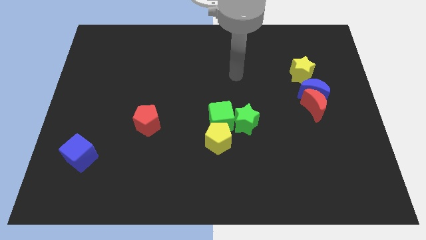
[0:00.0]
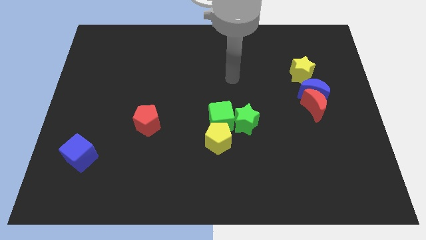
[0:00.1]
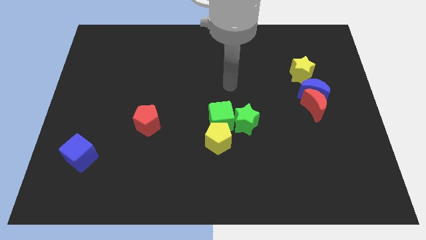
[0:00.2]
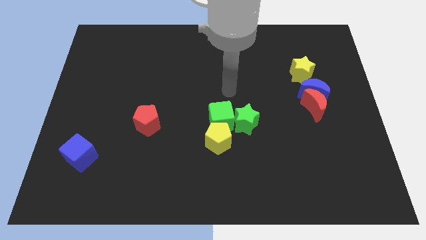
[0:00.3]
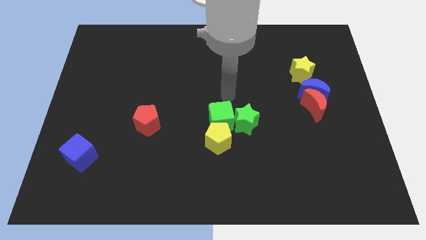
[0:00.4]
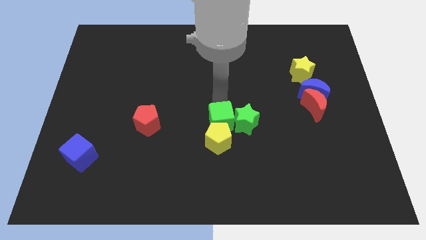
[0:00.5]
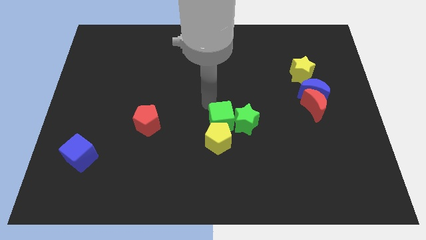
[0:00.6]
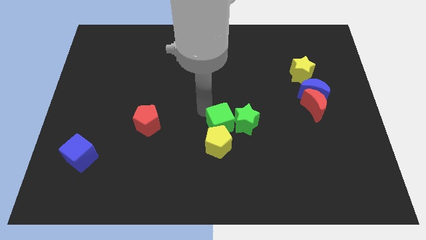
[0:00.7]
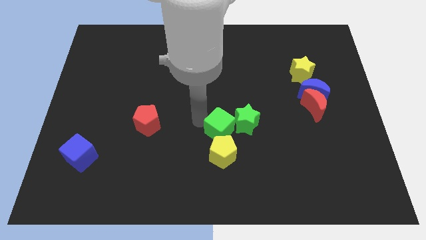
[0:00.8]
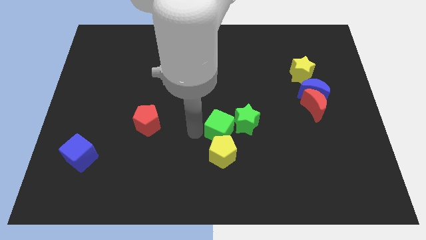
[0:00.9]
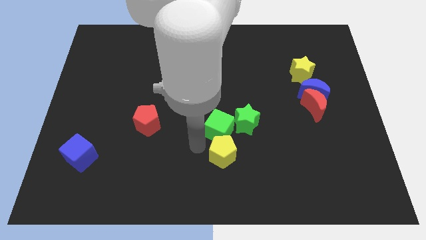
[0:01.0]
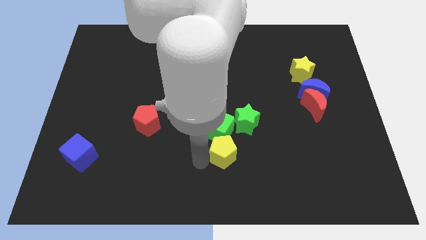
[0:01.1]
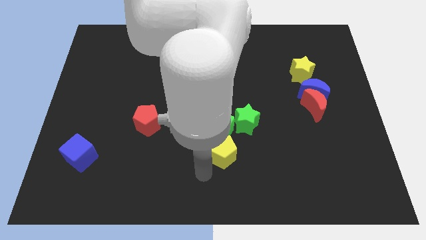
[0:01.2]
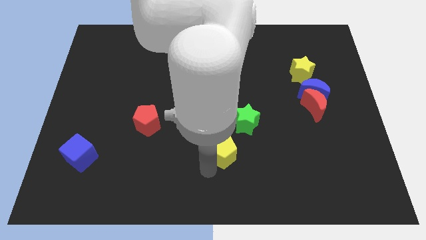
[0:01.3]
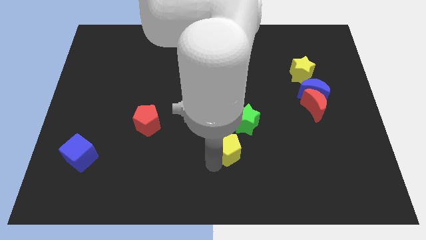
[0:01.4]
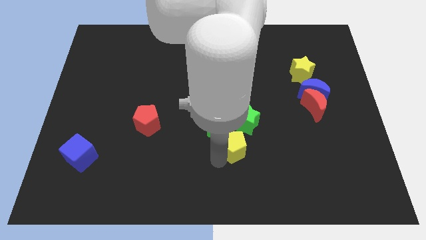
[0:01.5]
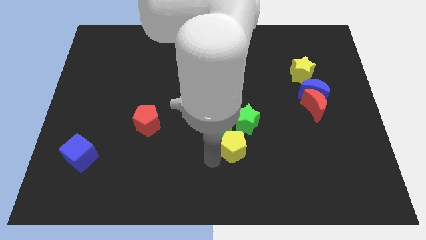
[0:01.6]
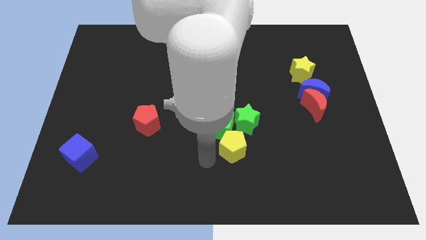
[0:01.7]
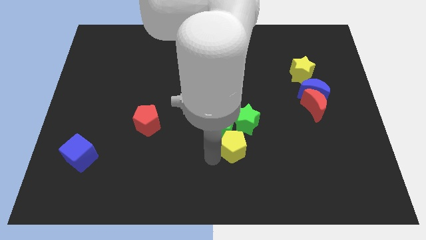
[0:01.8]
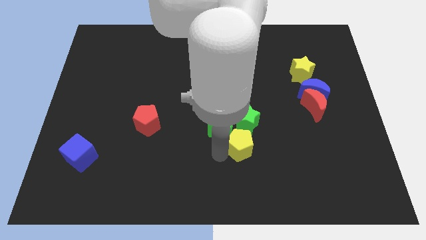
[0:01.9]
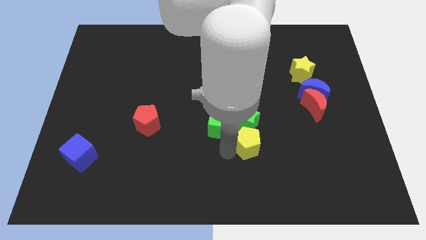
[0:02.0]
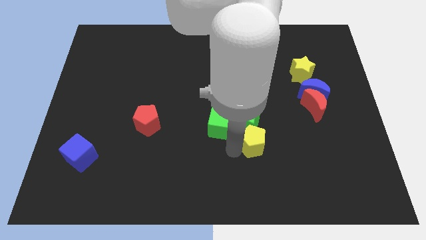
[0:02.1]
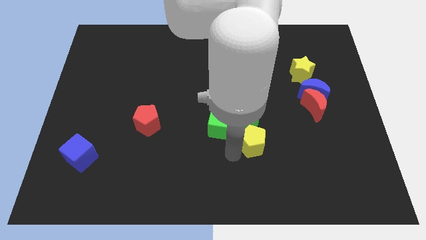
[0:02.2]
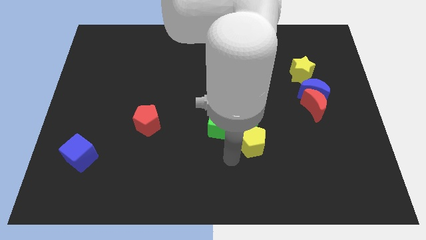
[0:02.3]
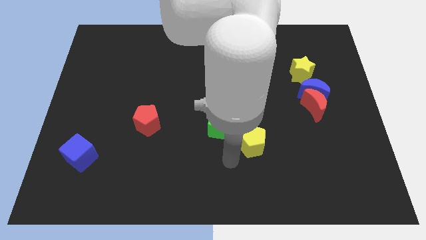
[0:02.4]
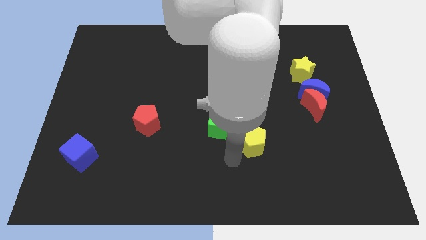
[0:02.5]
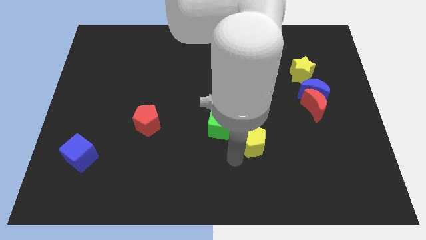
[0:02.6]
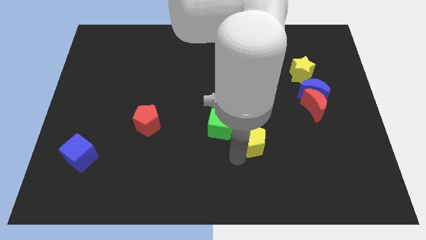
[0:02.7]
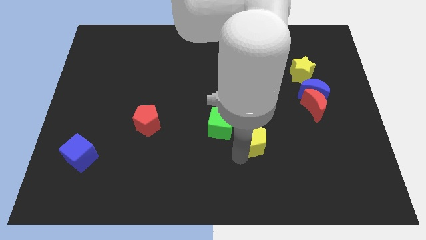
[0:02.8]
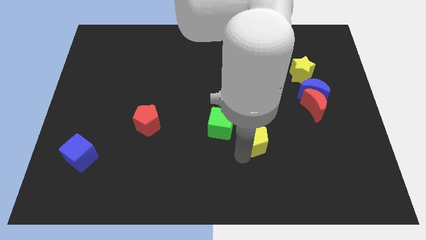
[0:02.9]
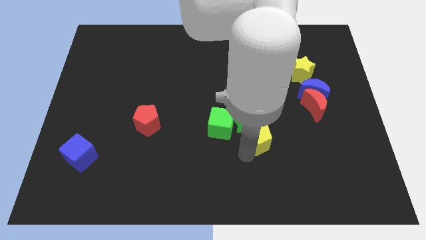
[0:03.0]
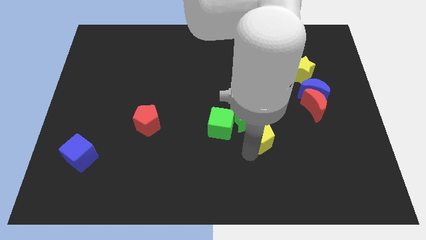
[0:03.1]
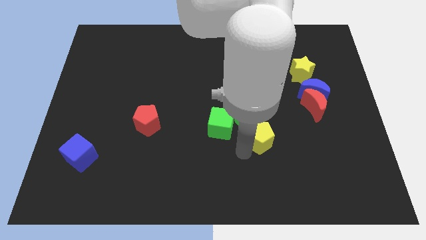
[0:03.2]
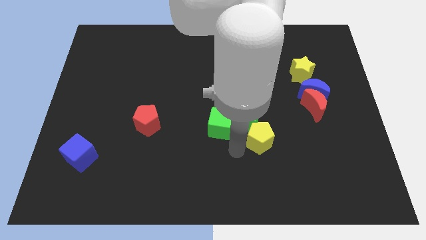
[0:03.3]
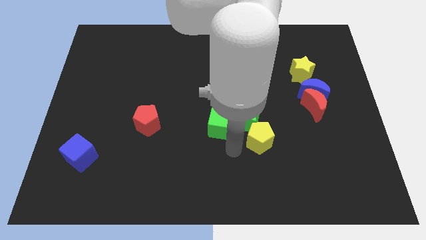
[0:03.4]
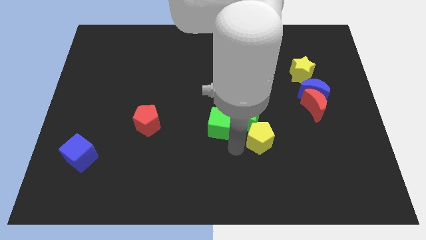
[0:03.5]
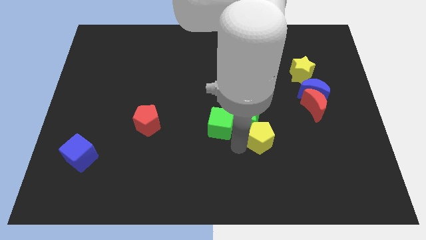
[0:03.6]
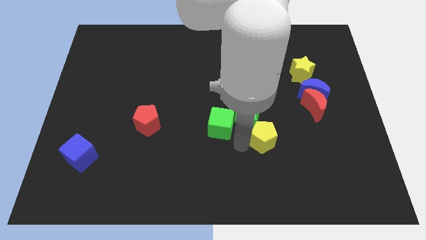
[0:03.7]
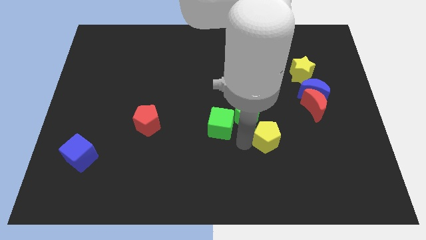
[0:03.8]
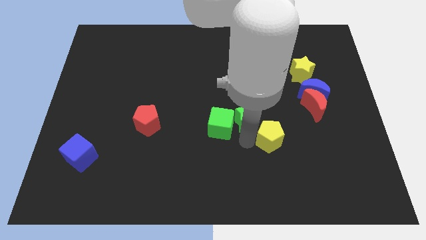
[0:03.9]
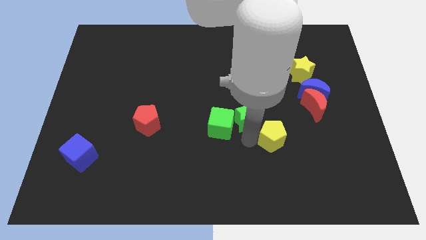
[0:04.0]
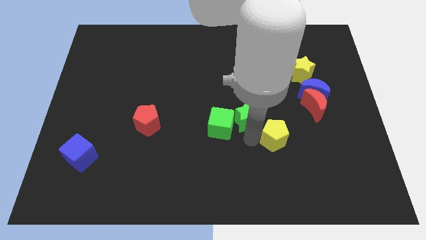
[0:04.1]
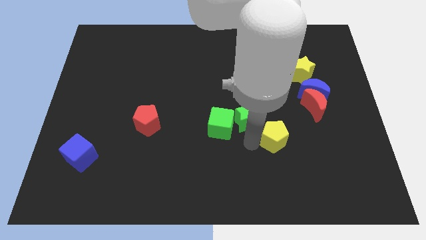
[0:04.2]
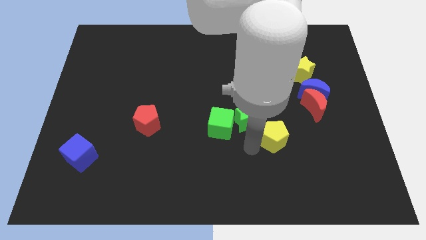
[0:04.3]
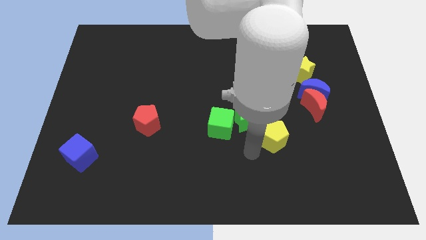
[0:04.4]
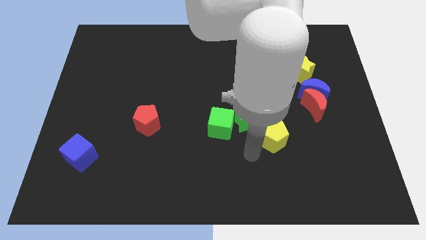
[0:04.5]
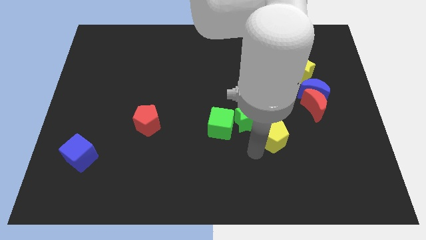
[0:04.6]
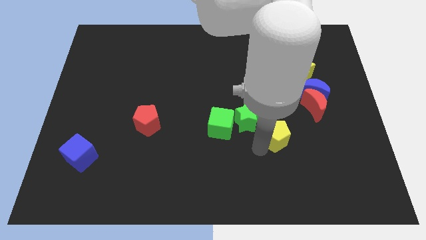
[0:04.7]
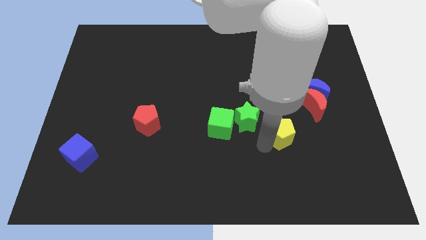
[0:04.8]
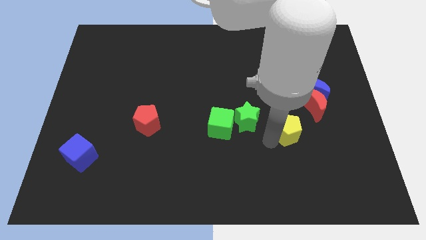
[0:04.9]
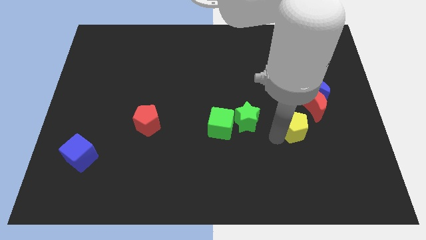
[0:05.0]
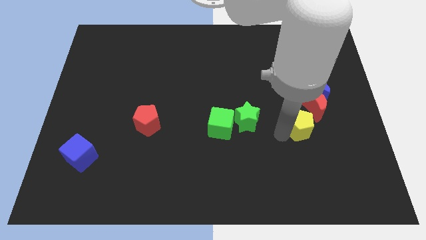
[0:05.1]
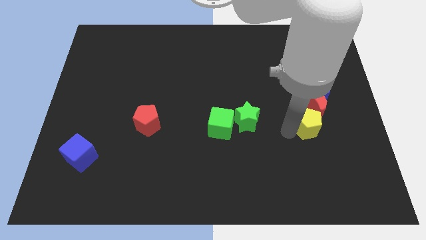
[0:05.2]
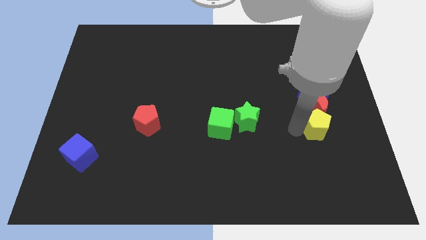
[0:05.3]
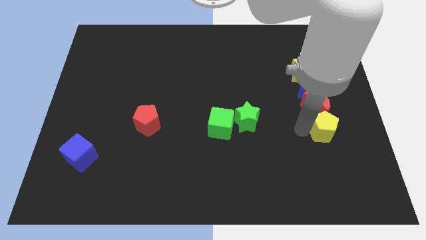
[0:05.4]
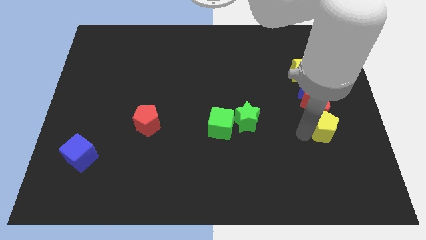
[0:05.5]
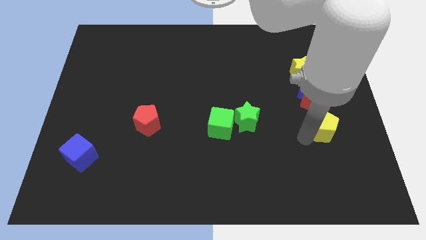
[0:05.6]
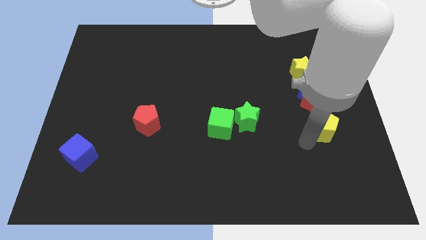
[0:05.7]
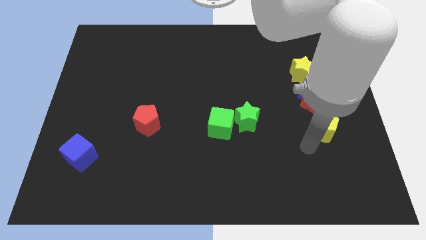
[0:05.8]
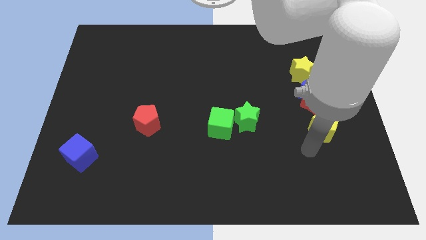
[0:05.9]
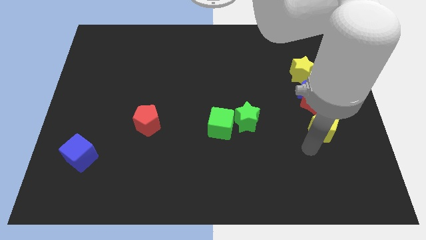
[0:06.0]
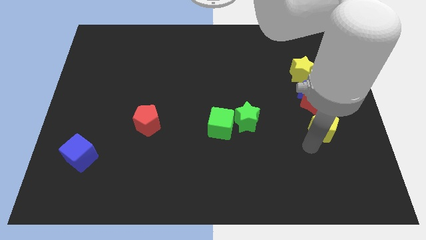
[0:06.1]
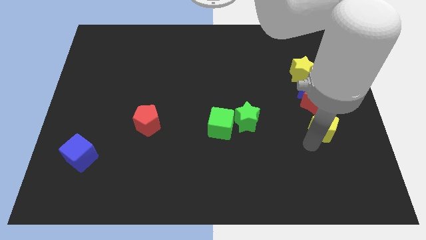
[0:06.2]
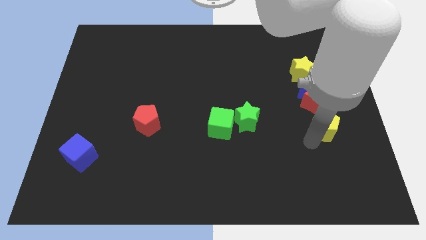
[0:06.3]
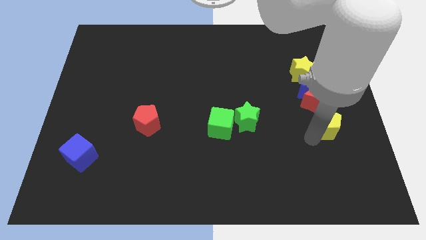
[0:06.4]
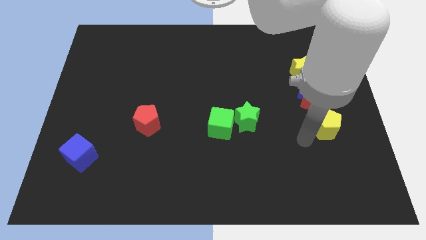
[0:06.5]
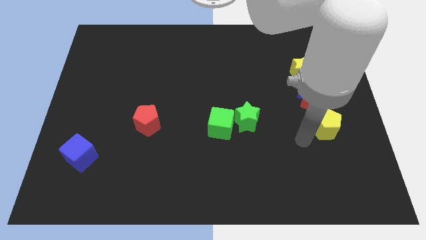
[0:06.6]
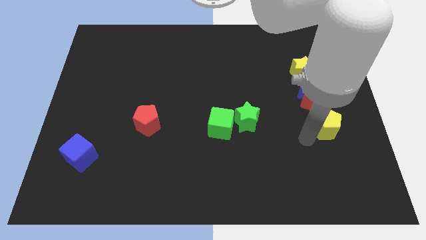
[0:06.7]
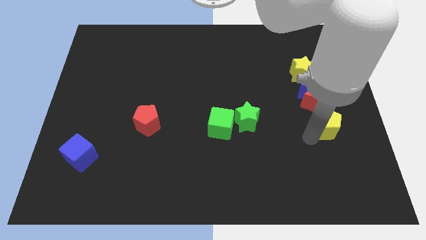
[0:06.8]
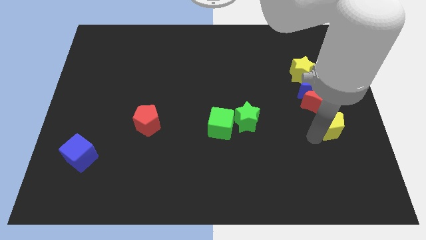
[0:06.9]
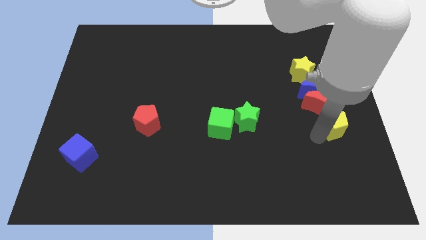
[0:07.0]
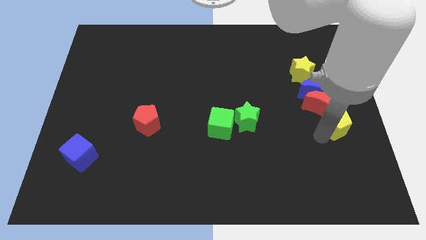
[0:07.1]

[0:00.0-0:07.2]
put the yellow pentagon to the right side of the board

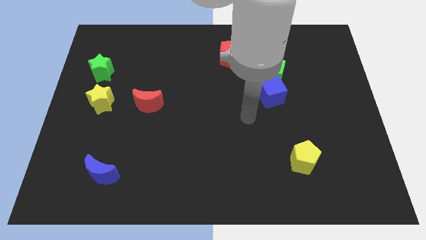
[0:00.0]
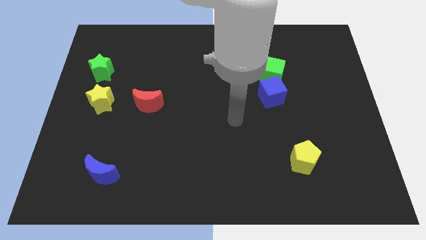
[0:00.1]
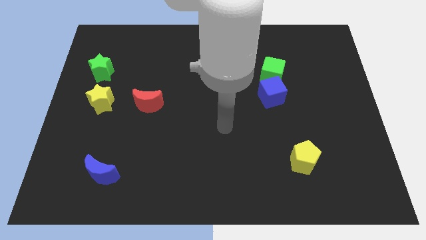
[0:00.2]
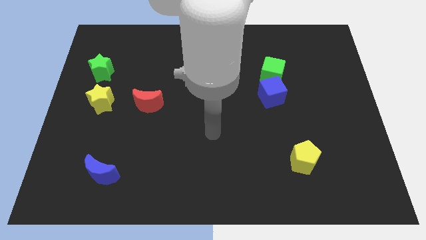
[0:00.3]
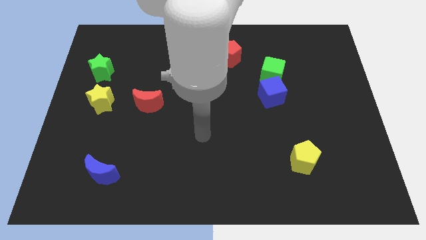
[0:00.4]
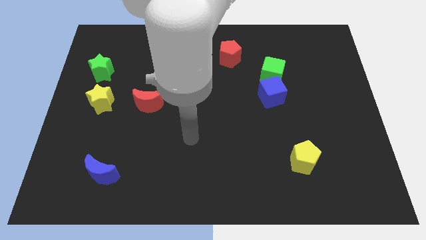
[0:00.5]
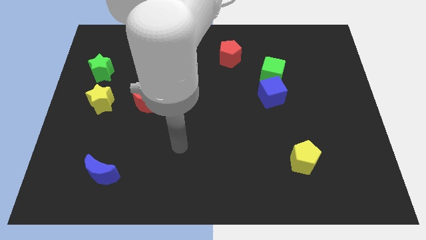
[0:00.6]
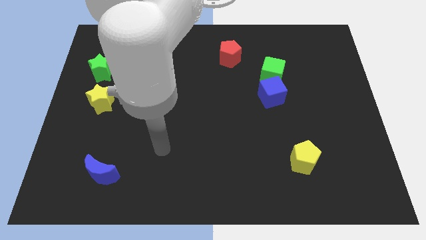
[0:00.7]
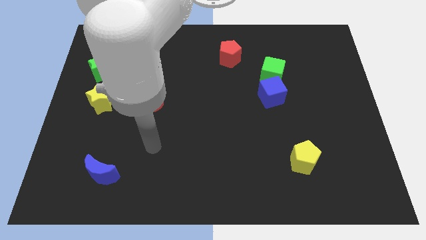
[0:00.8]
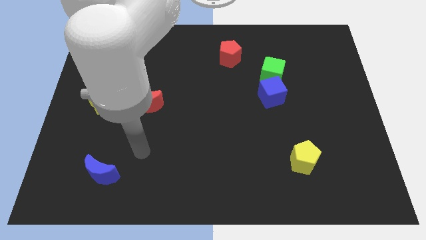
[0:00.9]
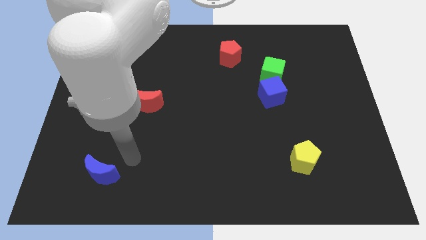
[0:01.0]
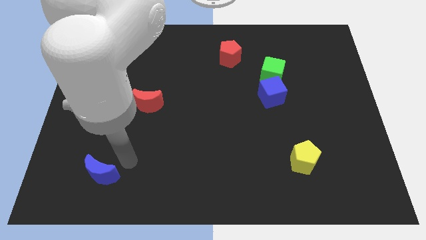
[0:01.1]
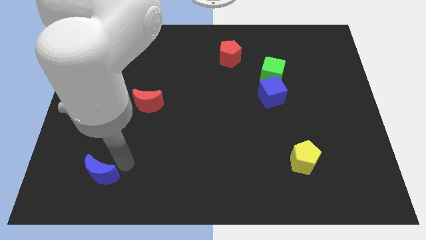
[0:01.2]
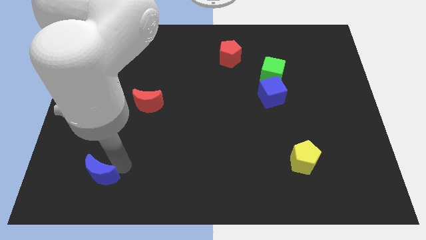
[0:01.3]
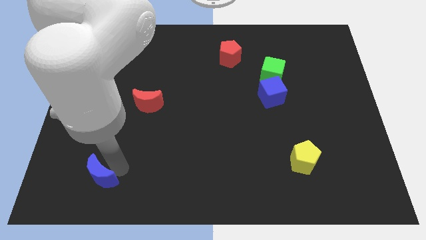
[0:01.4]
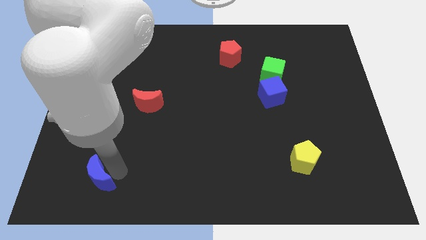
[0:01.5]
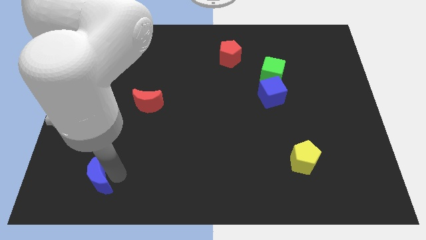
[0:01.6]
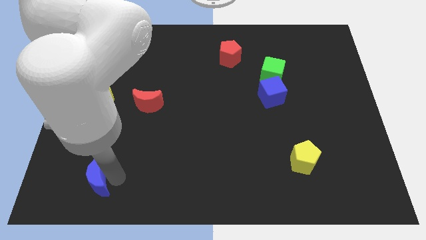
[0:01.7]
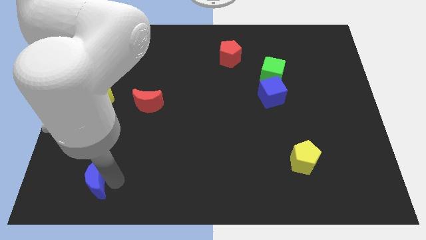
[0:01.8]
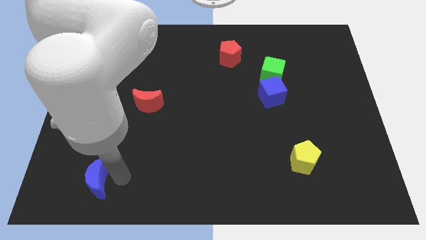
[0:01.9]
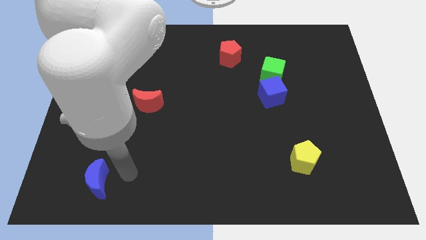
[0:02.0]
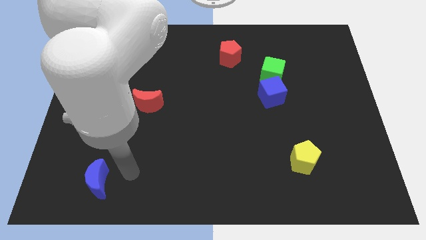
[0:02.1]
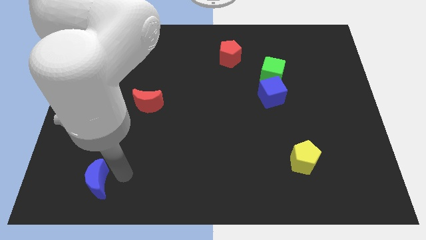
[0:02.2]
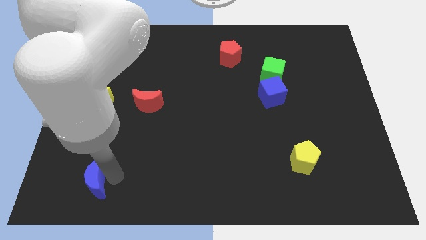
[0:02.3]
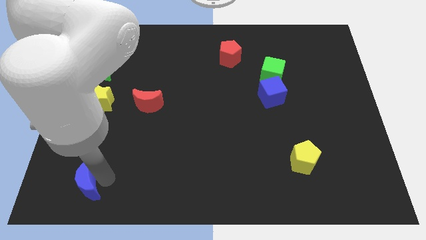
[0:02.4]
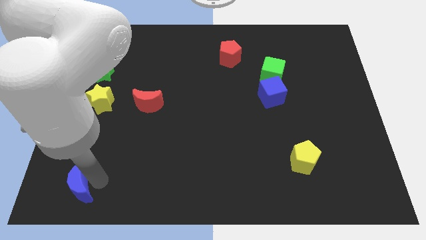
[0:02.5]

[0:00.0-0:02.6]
move the blue moon to the bottom left
